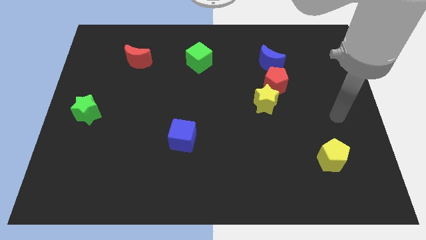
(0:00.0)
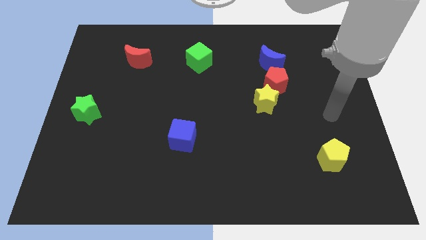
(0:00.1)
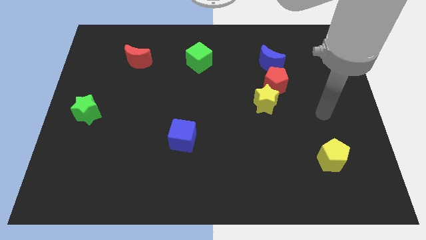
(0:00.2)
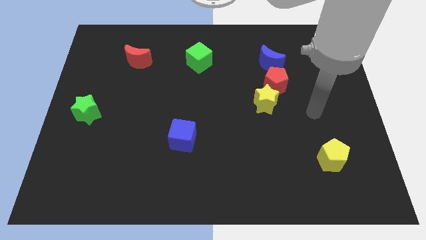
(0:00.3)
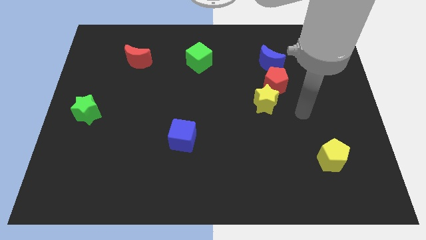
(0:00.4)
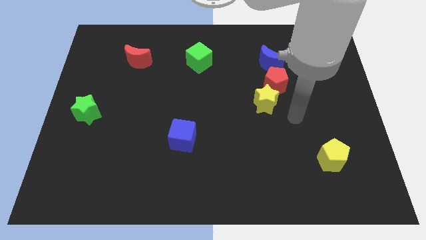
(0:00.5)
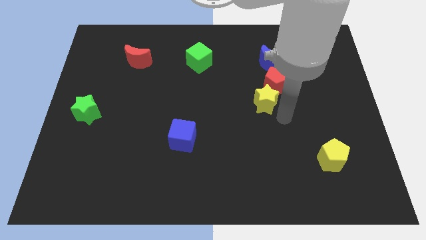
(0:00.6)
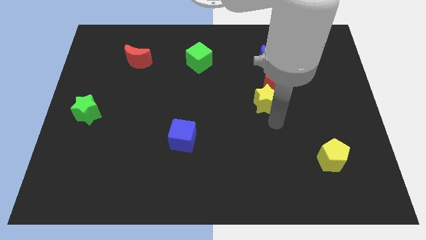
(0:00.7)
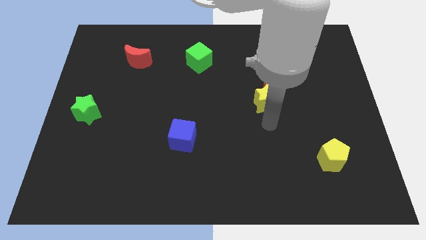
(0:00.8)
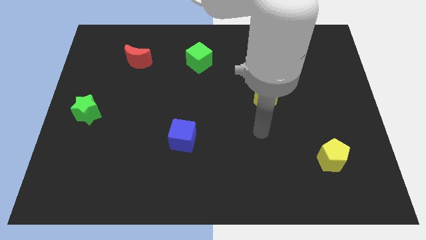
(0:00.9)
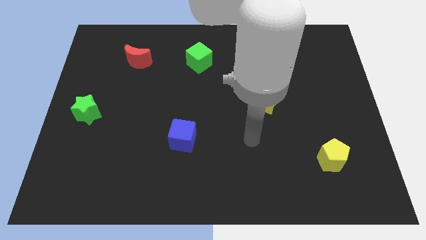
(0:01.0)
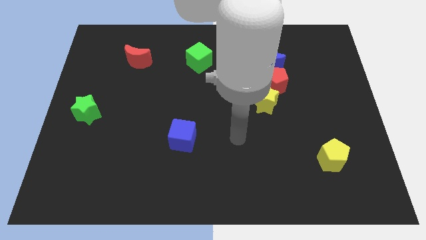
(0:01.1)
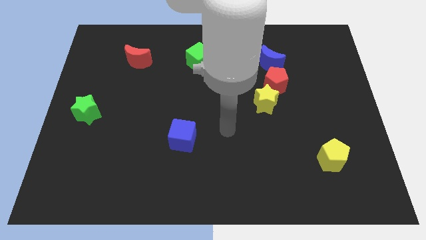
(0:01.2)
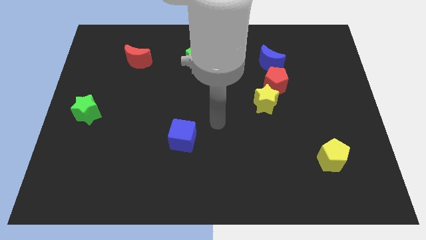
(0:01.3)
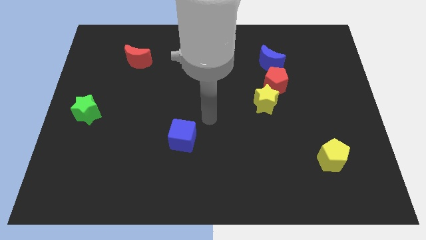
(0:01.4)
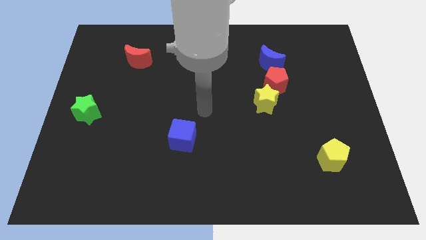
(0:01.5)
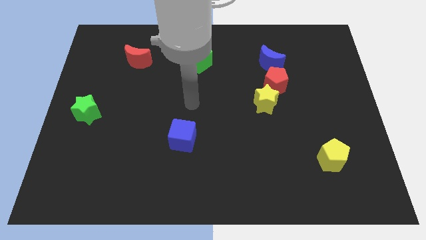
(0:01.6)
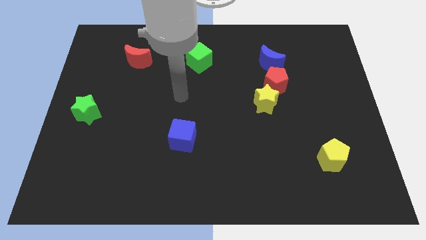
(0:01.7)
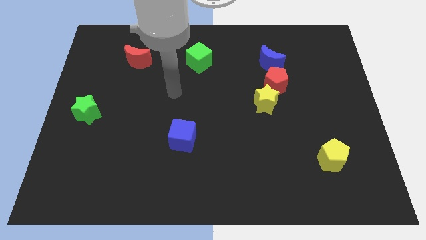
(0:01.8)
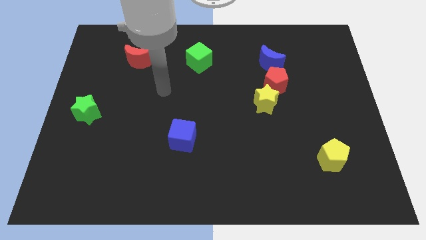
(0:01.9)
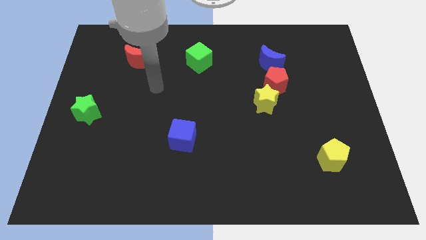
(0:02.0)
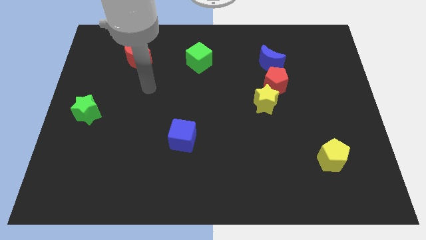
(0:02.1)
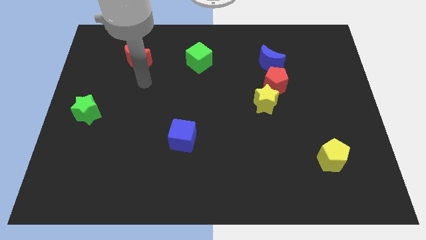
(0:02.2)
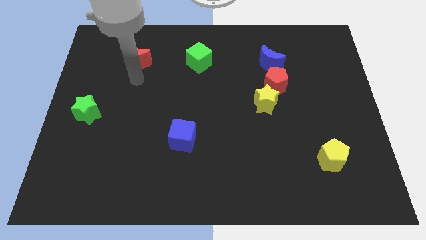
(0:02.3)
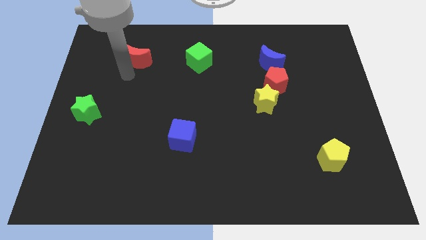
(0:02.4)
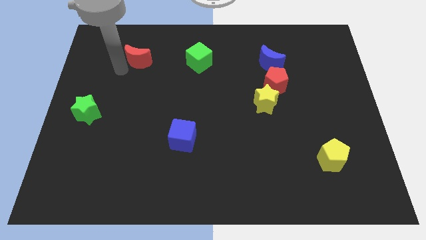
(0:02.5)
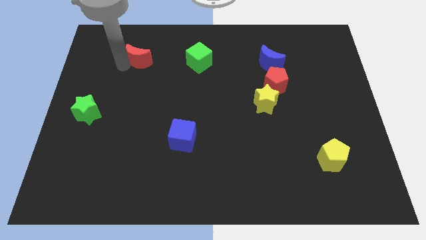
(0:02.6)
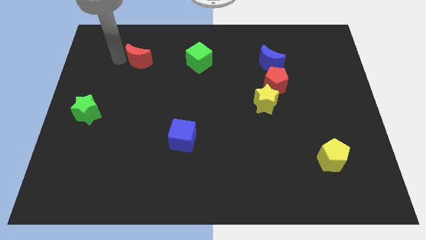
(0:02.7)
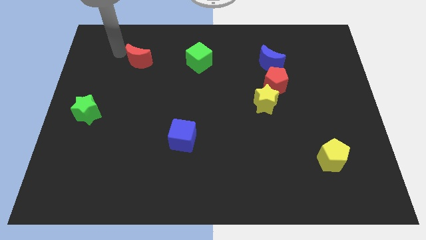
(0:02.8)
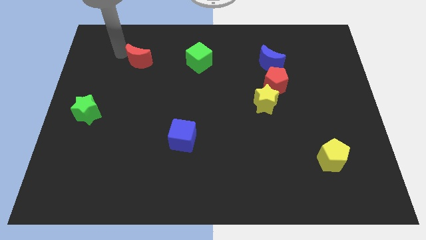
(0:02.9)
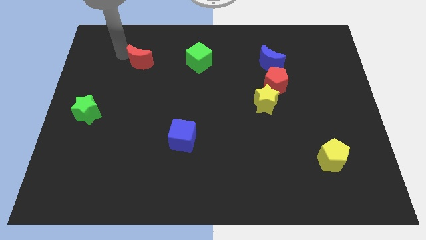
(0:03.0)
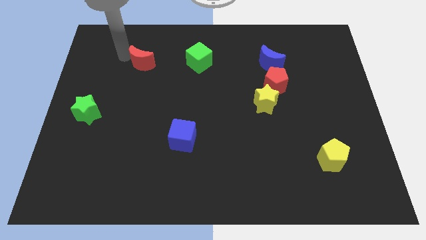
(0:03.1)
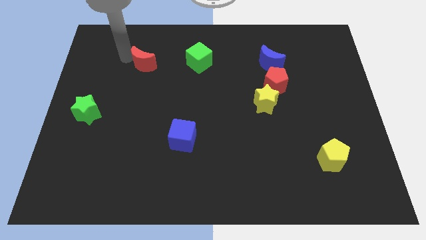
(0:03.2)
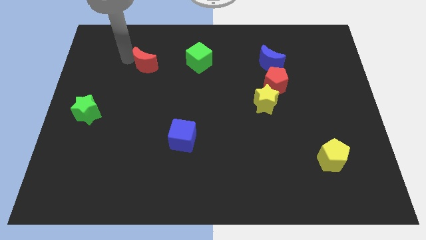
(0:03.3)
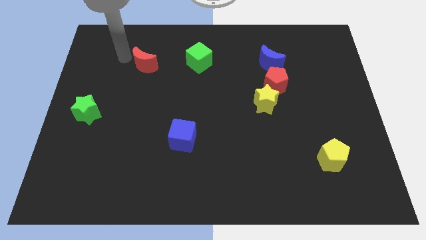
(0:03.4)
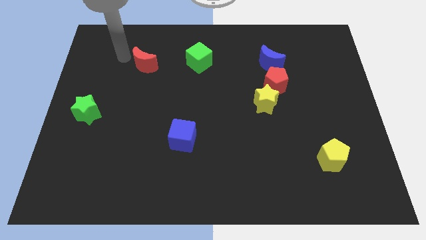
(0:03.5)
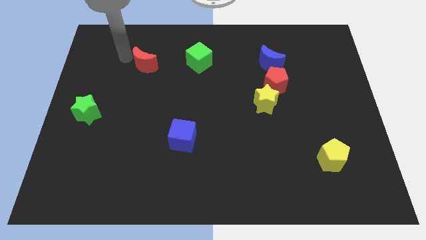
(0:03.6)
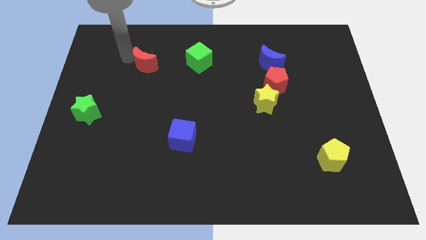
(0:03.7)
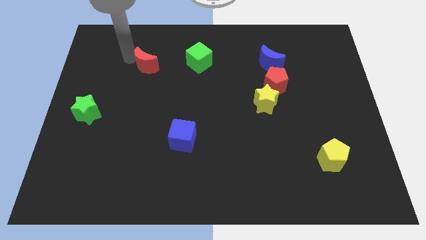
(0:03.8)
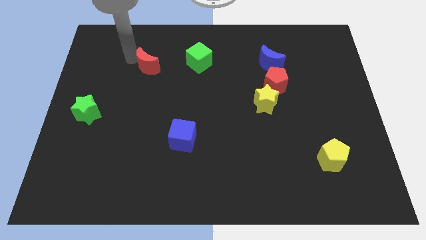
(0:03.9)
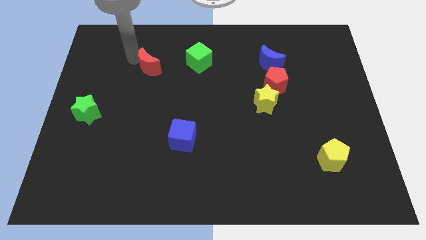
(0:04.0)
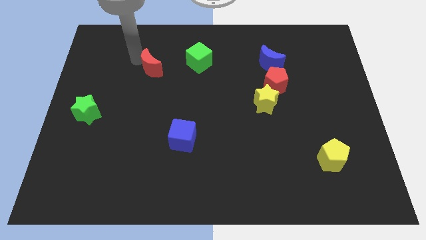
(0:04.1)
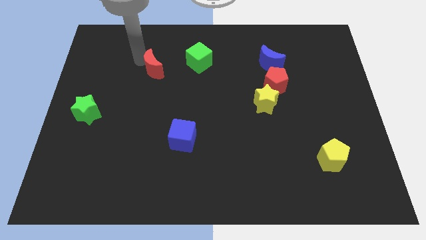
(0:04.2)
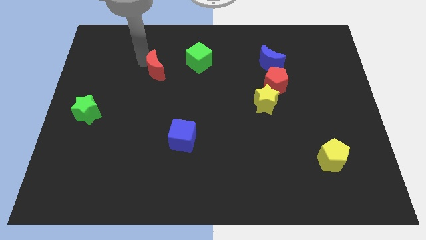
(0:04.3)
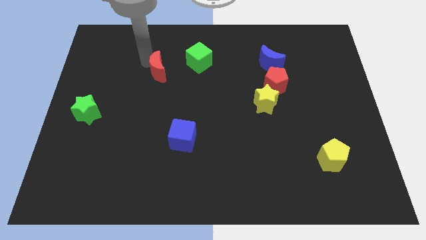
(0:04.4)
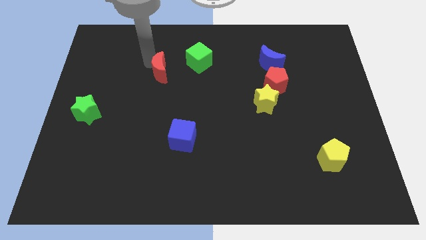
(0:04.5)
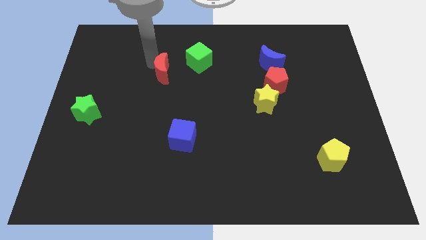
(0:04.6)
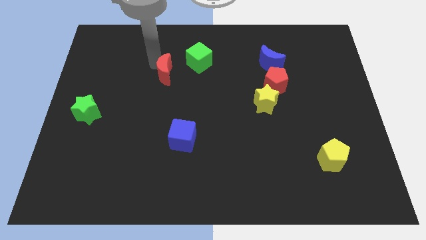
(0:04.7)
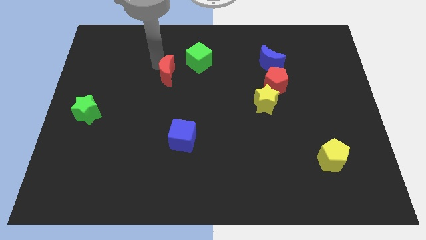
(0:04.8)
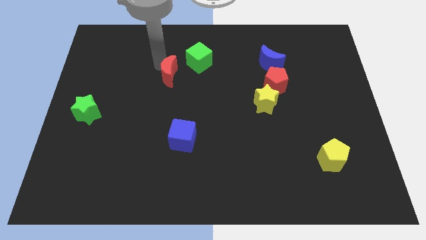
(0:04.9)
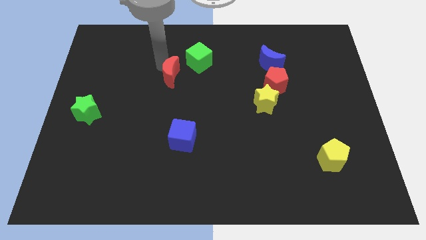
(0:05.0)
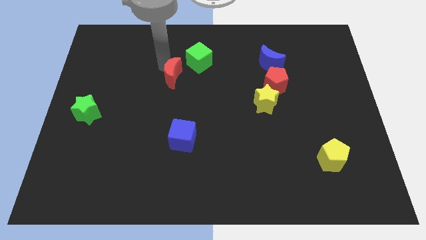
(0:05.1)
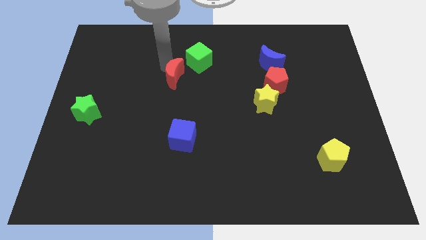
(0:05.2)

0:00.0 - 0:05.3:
move the red moon to the center

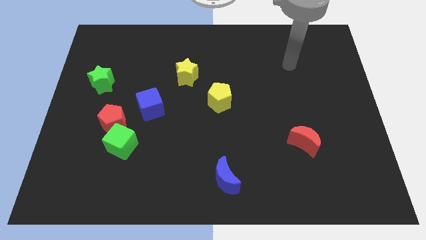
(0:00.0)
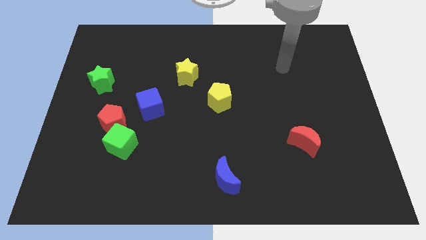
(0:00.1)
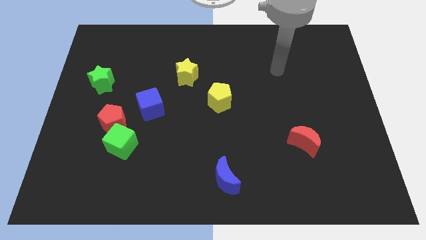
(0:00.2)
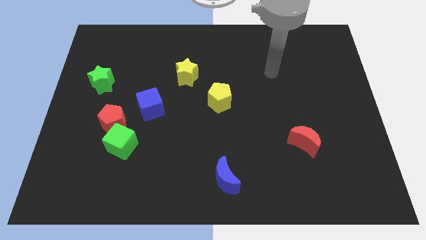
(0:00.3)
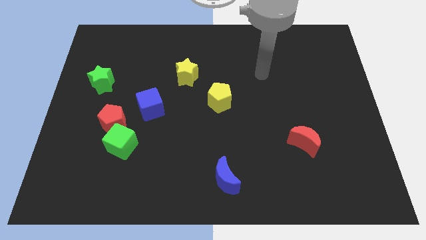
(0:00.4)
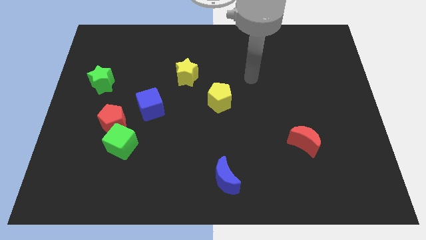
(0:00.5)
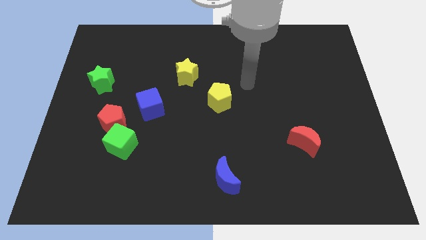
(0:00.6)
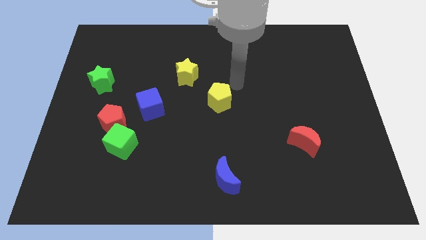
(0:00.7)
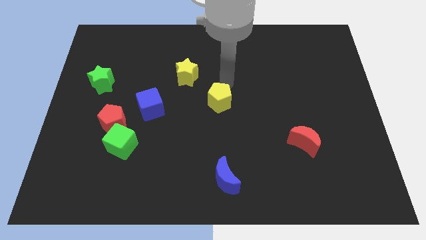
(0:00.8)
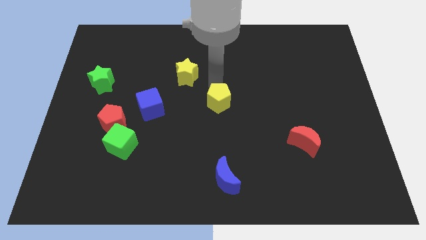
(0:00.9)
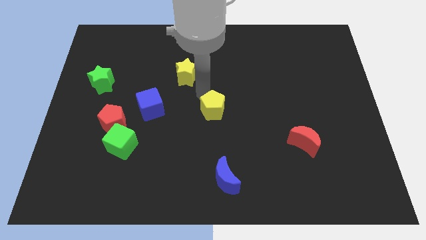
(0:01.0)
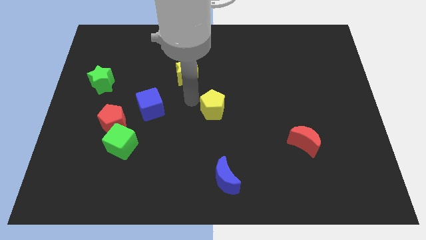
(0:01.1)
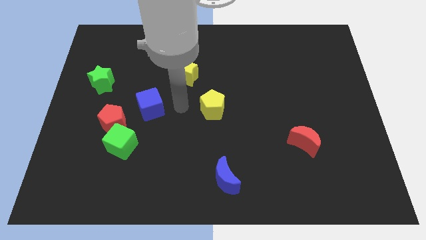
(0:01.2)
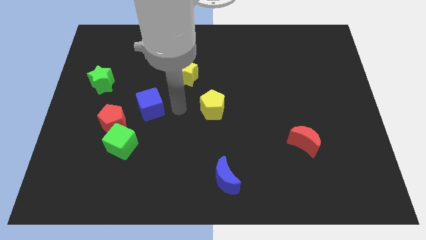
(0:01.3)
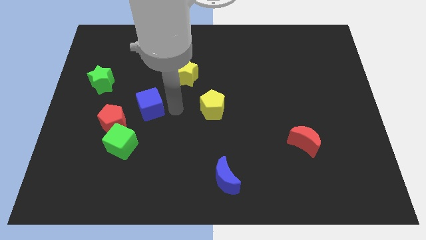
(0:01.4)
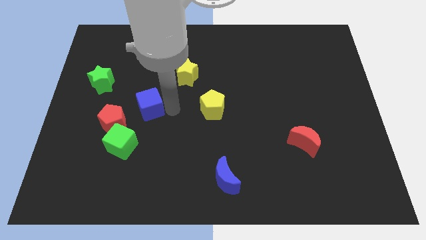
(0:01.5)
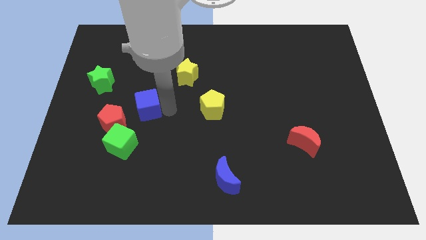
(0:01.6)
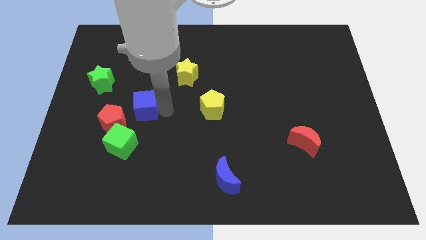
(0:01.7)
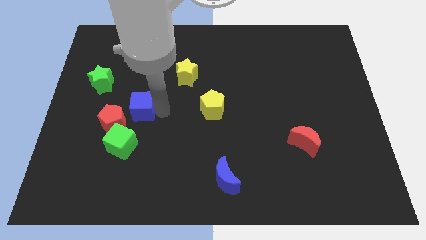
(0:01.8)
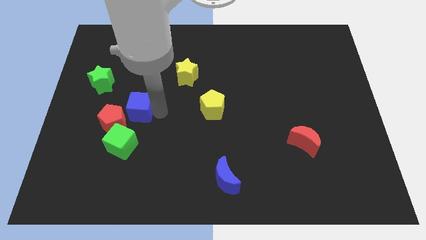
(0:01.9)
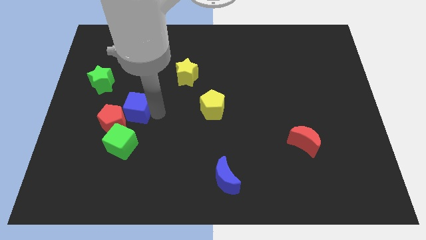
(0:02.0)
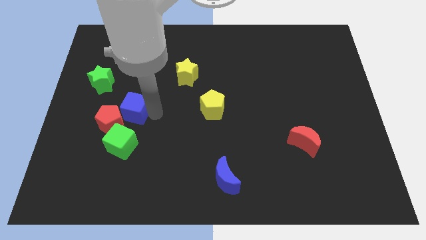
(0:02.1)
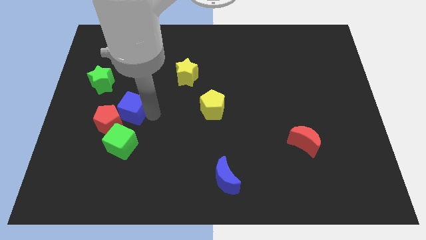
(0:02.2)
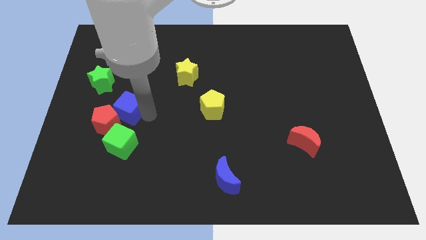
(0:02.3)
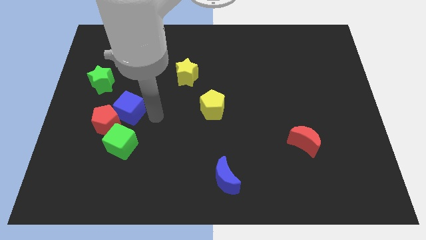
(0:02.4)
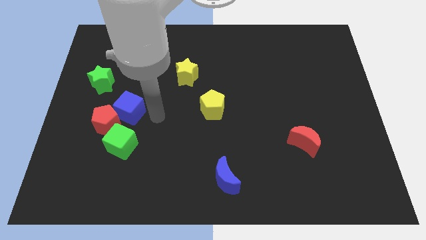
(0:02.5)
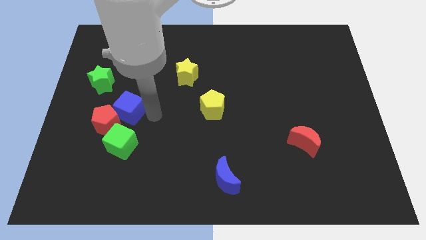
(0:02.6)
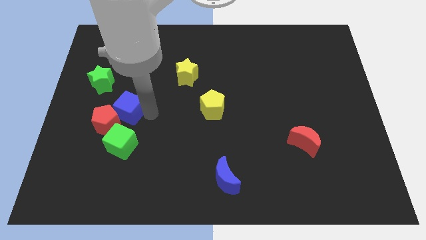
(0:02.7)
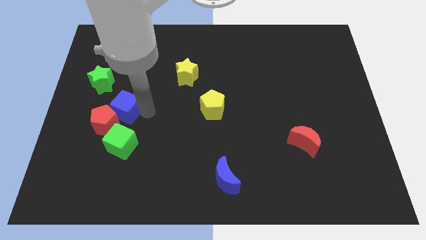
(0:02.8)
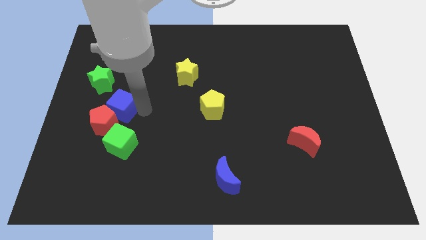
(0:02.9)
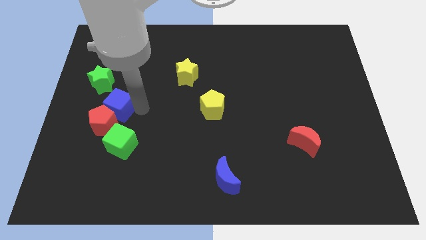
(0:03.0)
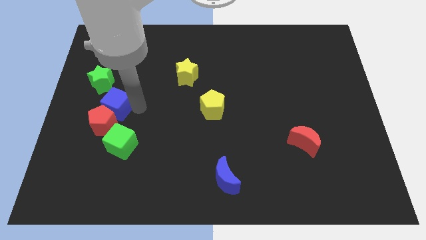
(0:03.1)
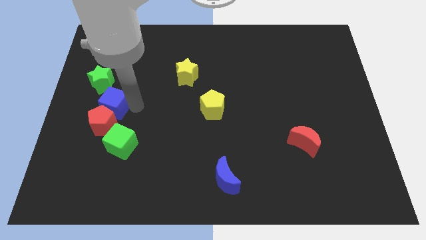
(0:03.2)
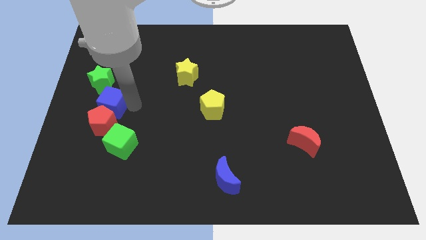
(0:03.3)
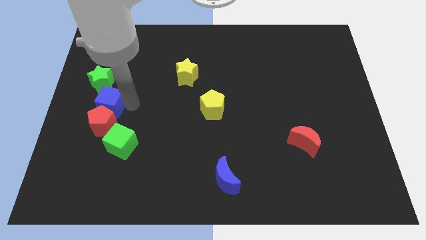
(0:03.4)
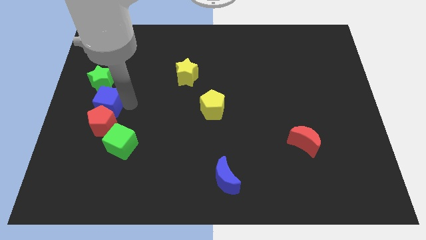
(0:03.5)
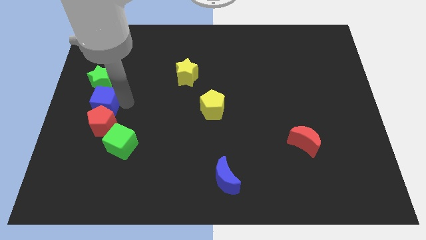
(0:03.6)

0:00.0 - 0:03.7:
slide the blue cube to the center left
